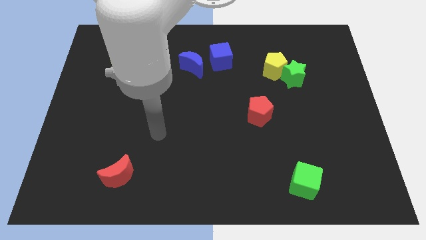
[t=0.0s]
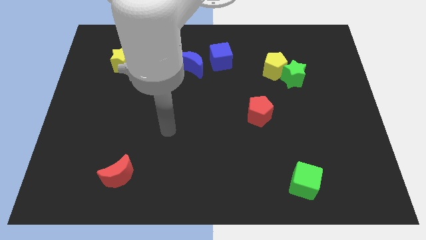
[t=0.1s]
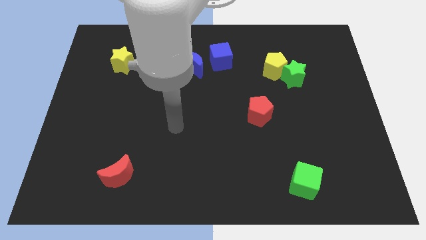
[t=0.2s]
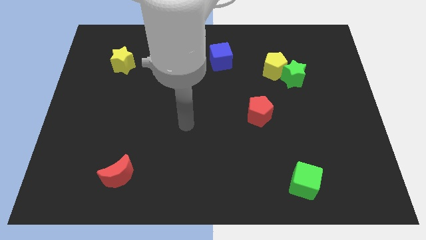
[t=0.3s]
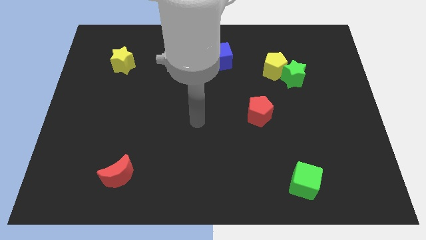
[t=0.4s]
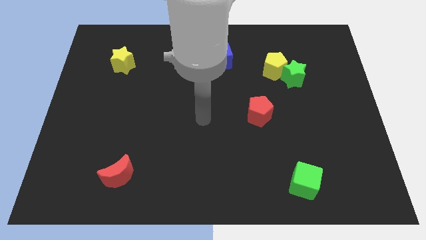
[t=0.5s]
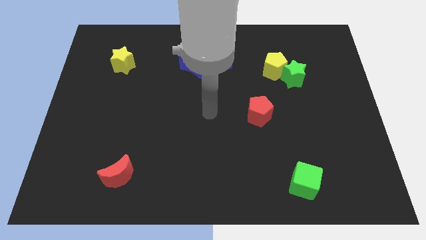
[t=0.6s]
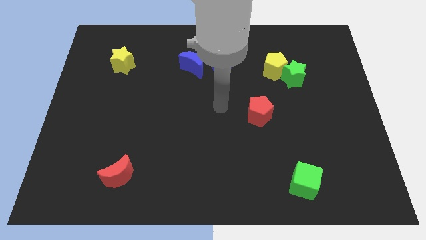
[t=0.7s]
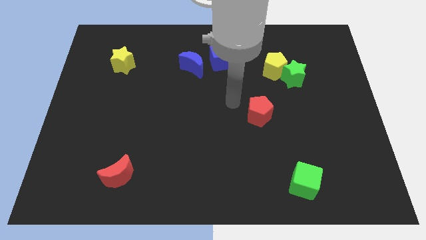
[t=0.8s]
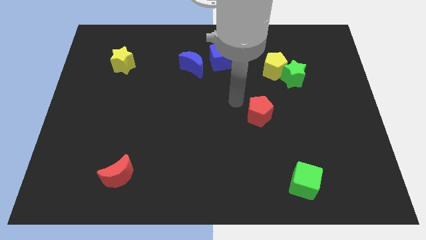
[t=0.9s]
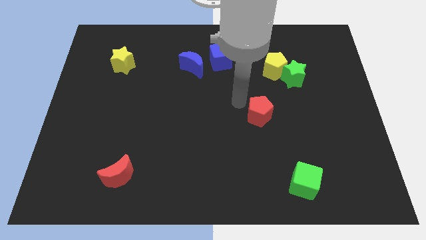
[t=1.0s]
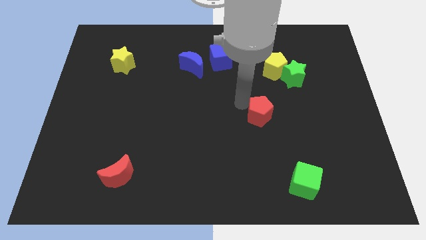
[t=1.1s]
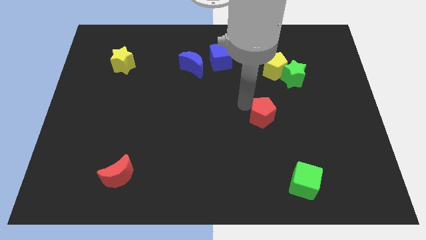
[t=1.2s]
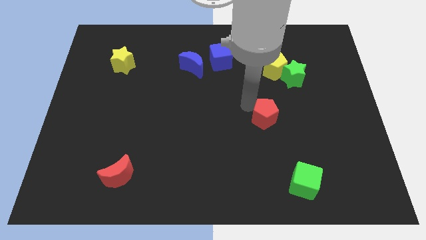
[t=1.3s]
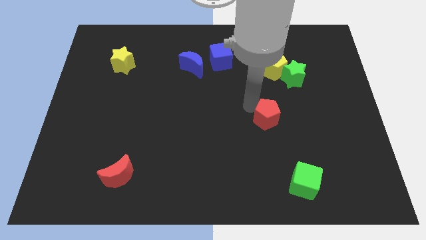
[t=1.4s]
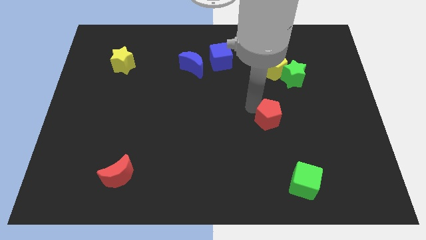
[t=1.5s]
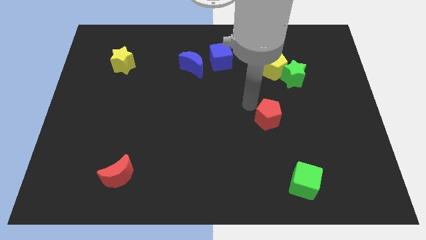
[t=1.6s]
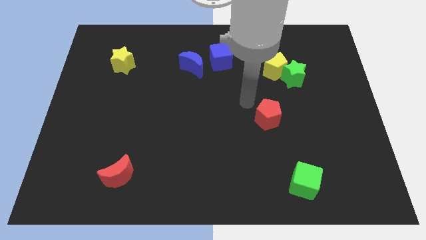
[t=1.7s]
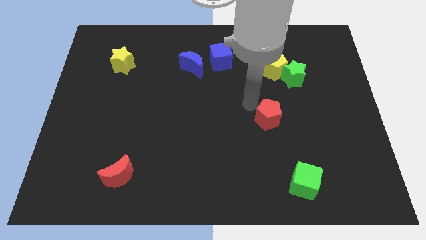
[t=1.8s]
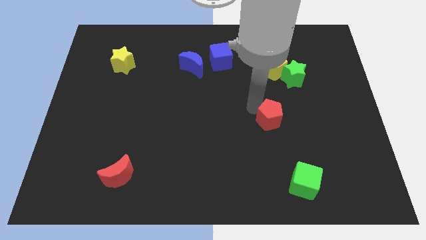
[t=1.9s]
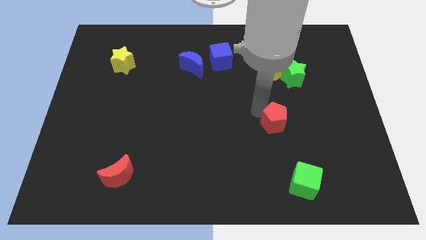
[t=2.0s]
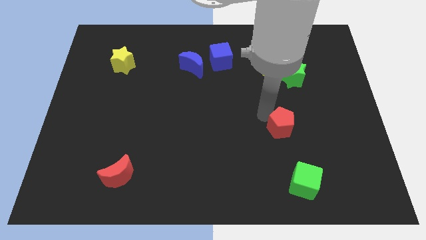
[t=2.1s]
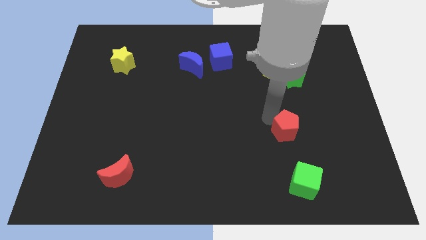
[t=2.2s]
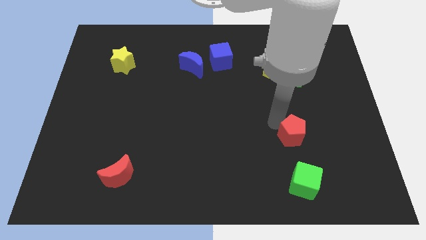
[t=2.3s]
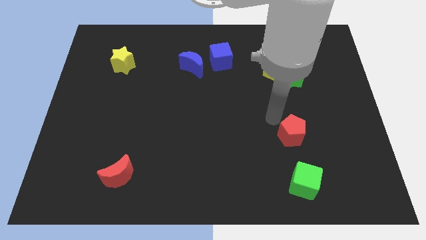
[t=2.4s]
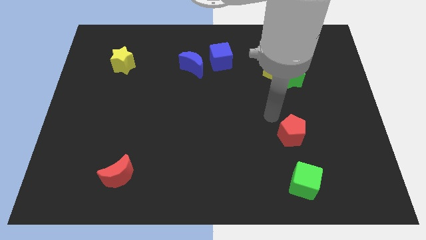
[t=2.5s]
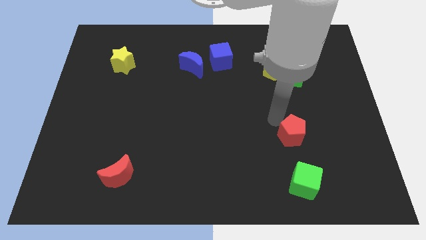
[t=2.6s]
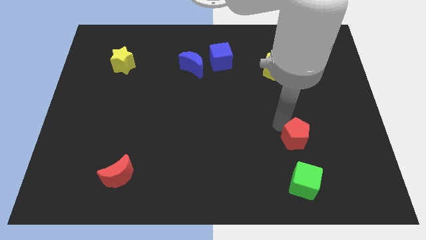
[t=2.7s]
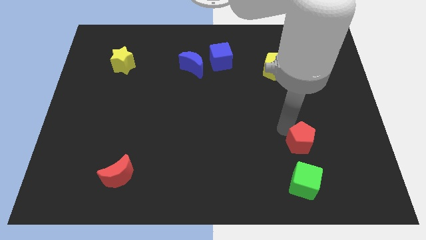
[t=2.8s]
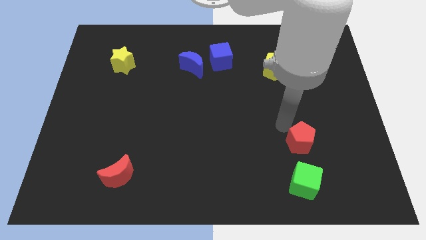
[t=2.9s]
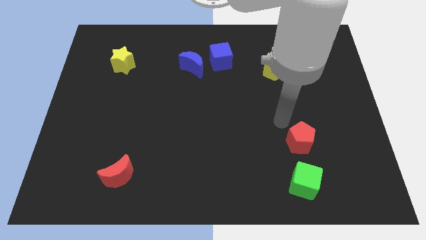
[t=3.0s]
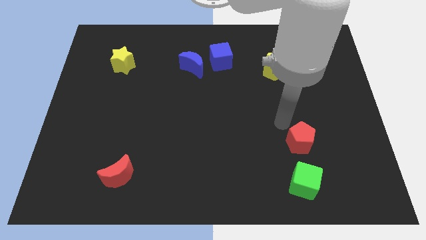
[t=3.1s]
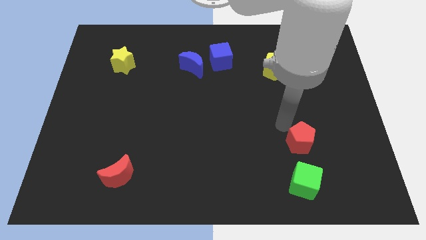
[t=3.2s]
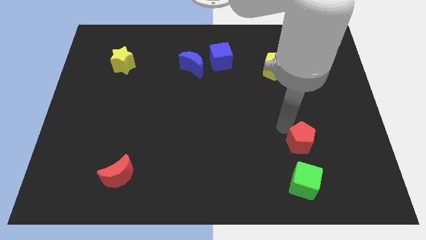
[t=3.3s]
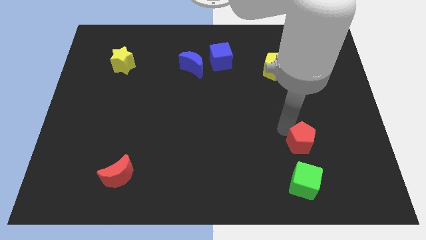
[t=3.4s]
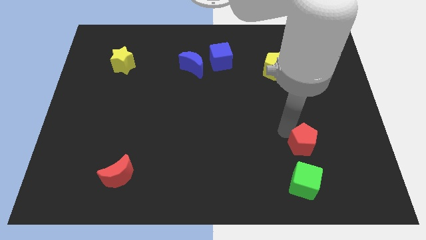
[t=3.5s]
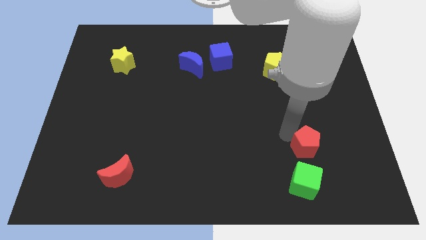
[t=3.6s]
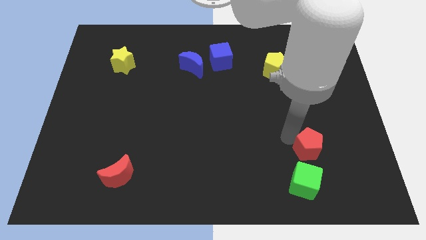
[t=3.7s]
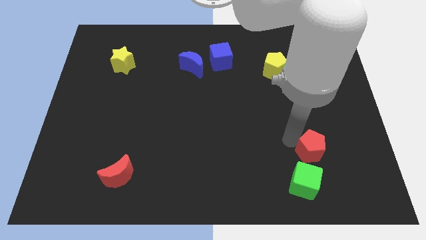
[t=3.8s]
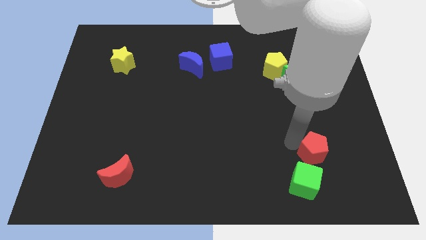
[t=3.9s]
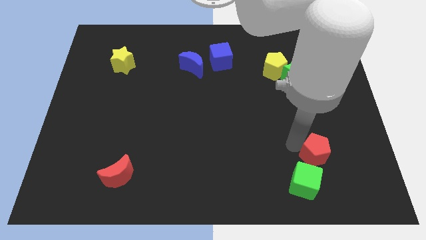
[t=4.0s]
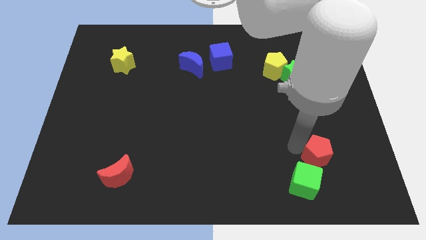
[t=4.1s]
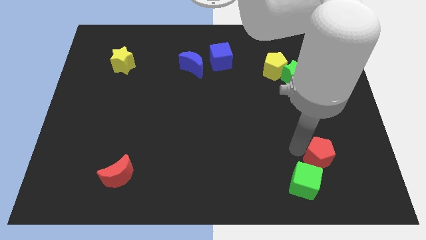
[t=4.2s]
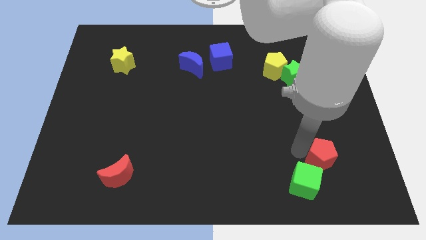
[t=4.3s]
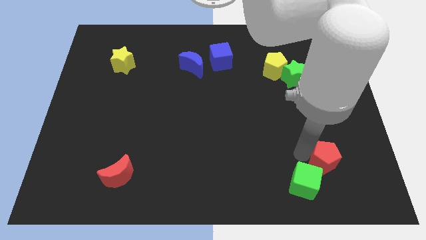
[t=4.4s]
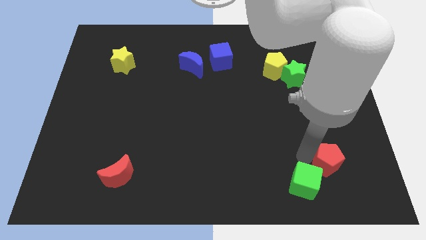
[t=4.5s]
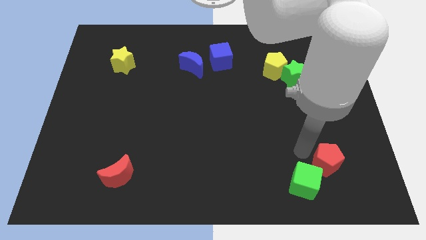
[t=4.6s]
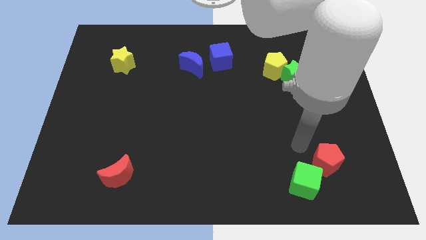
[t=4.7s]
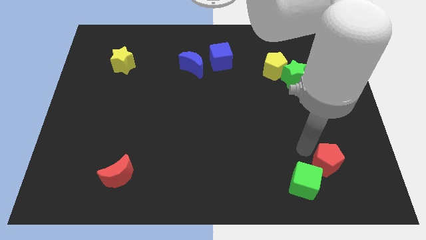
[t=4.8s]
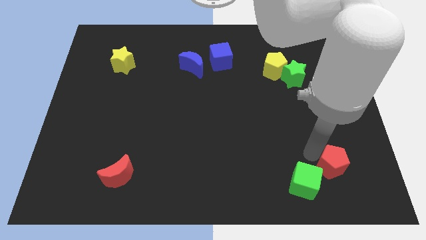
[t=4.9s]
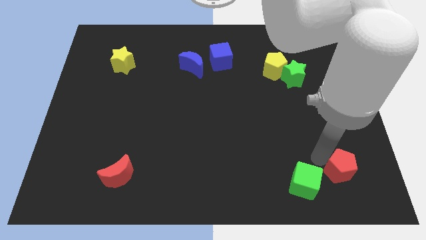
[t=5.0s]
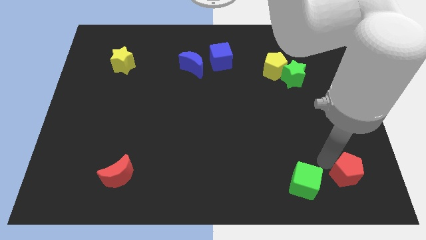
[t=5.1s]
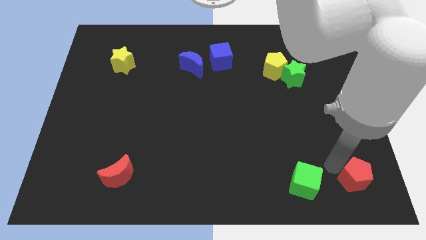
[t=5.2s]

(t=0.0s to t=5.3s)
push the red pentagon to the bottom right of the board

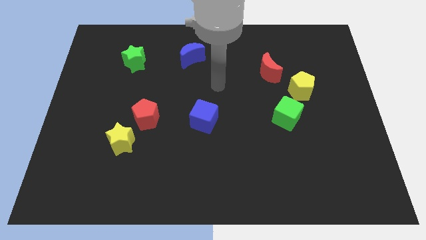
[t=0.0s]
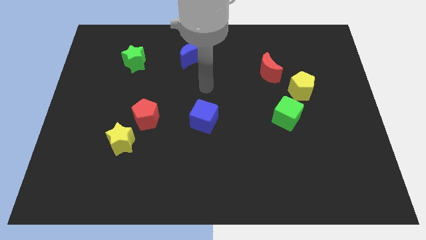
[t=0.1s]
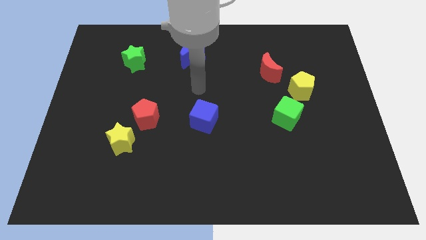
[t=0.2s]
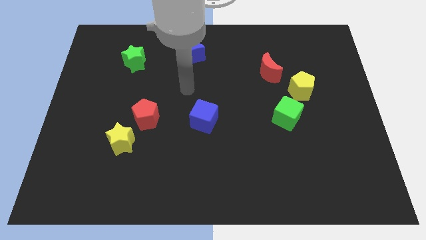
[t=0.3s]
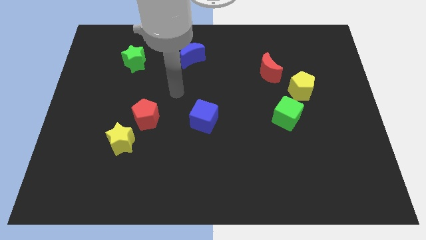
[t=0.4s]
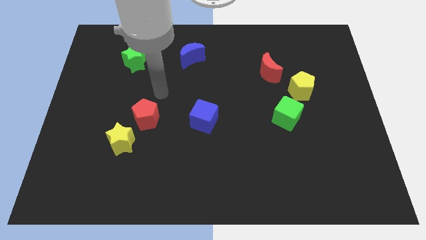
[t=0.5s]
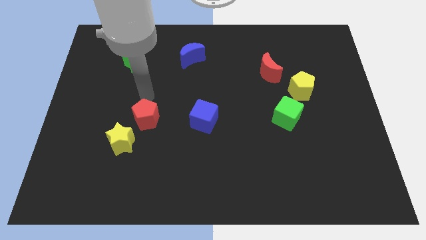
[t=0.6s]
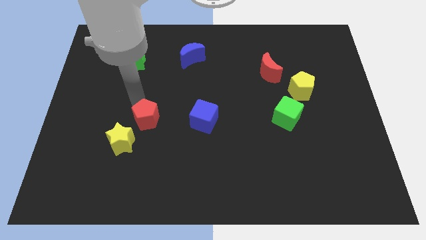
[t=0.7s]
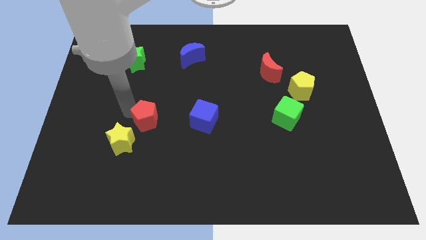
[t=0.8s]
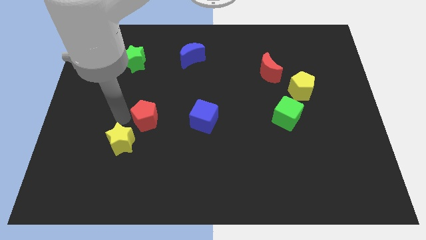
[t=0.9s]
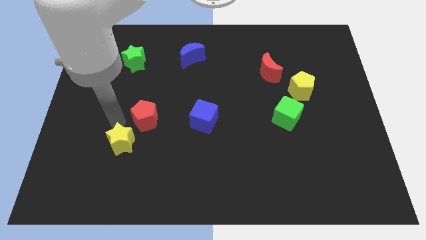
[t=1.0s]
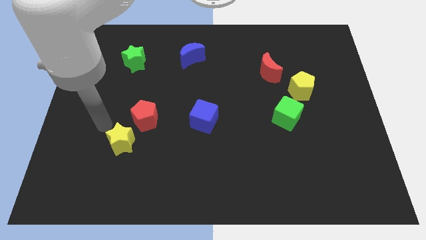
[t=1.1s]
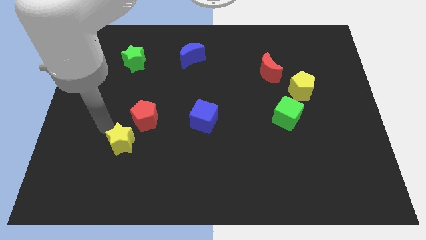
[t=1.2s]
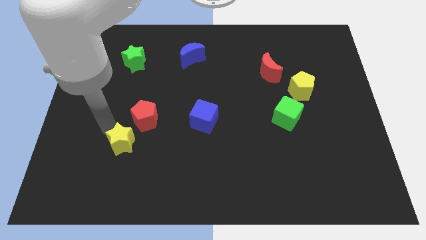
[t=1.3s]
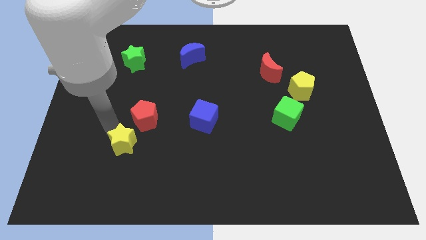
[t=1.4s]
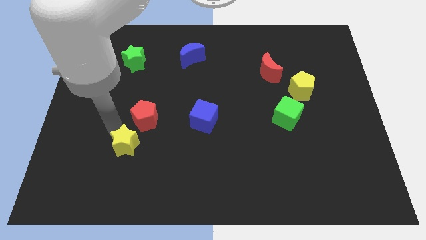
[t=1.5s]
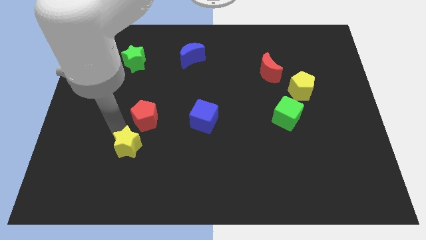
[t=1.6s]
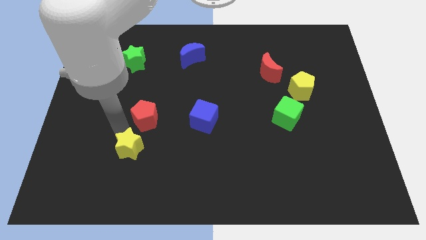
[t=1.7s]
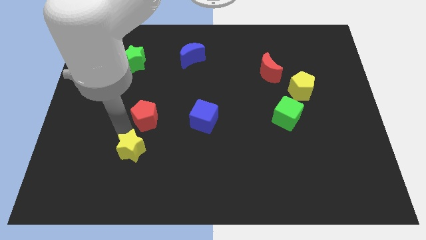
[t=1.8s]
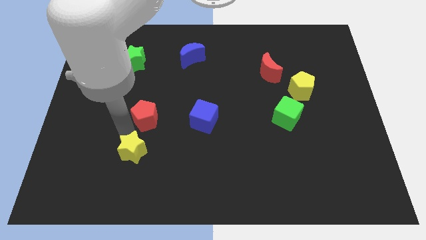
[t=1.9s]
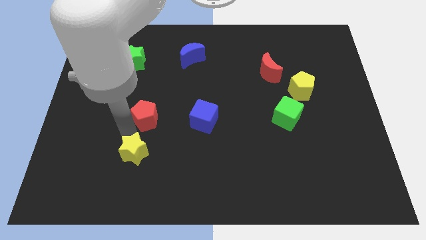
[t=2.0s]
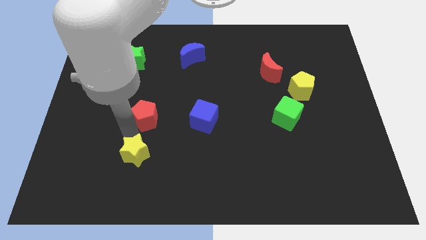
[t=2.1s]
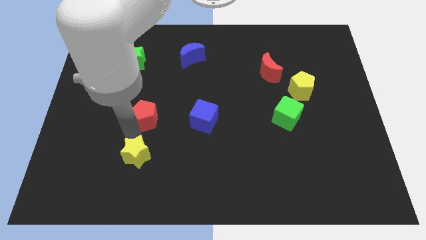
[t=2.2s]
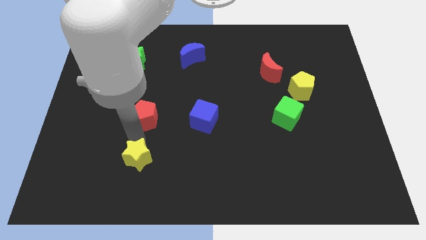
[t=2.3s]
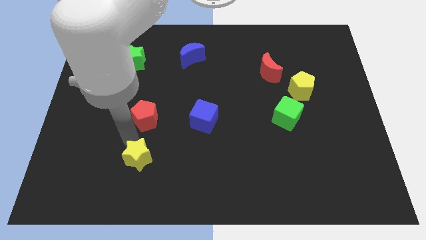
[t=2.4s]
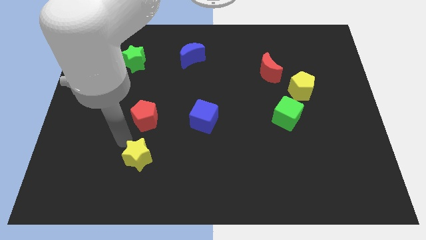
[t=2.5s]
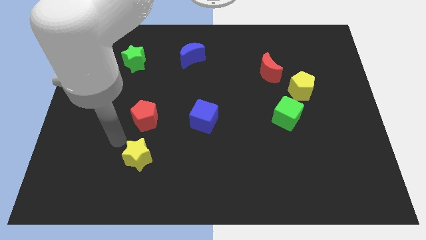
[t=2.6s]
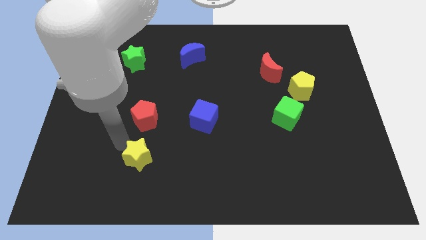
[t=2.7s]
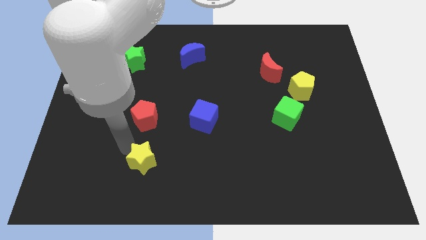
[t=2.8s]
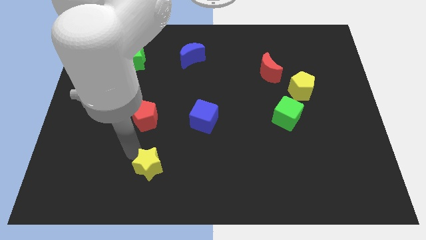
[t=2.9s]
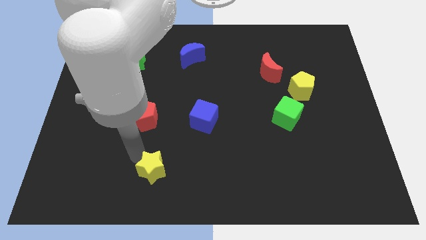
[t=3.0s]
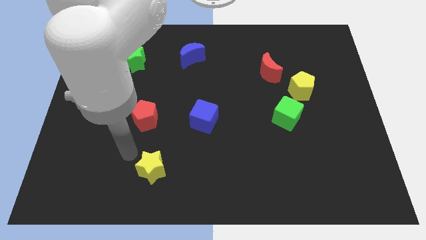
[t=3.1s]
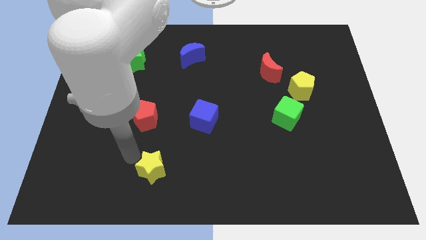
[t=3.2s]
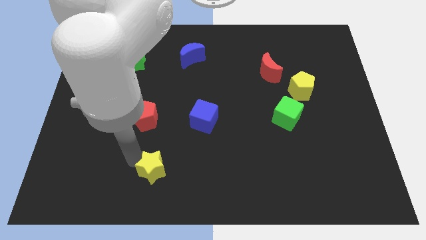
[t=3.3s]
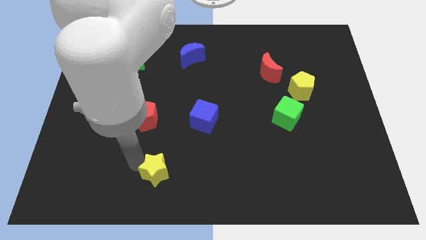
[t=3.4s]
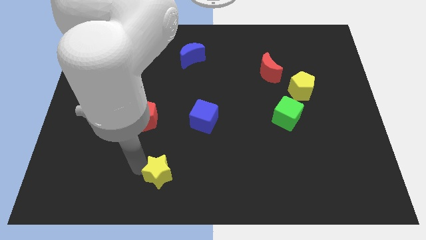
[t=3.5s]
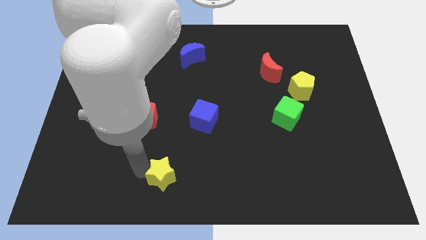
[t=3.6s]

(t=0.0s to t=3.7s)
slide the yellow star to the bottom side
